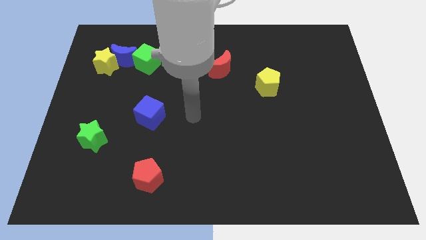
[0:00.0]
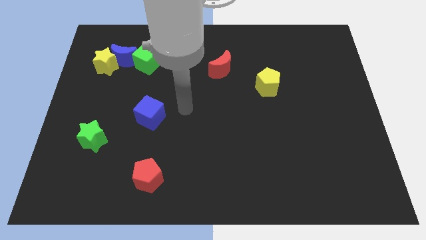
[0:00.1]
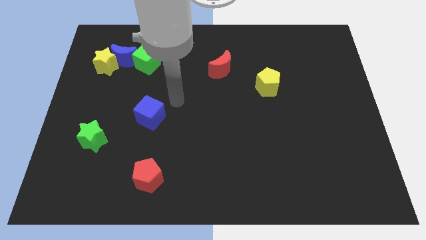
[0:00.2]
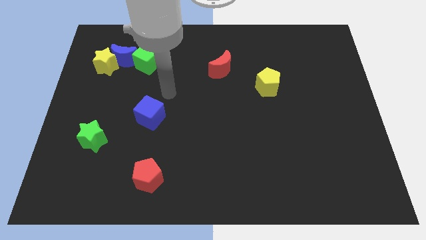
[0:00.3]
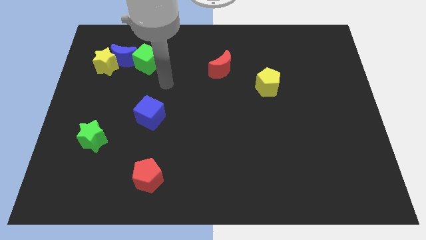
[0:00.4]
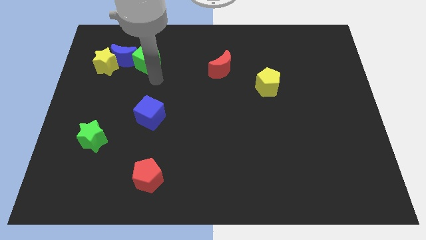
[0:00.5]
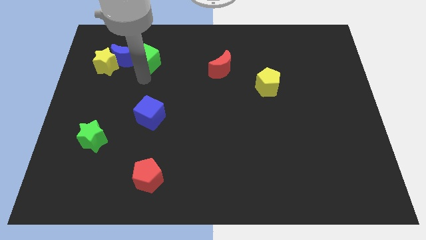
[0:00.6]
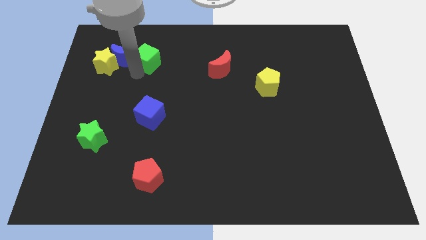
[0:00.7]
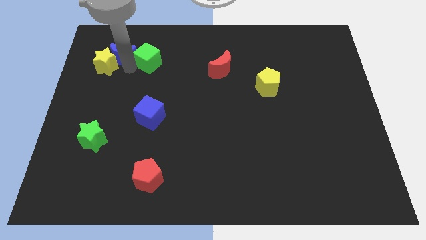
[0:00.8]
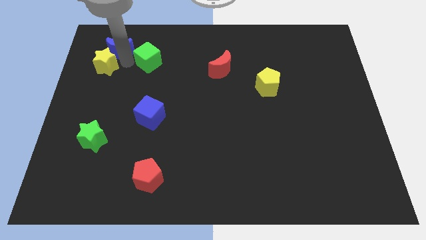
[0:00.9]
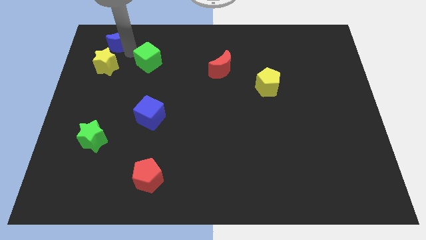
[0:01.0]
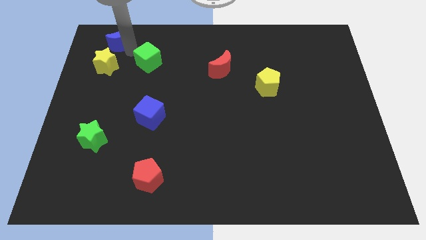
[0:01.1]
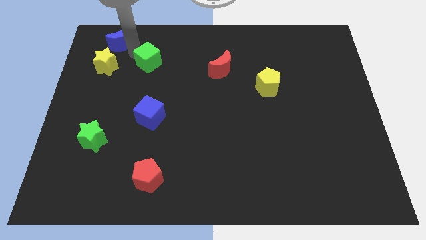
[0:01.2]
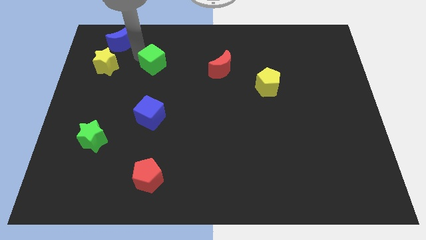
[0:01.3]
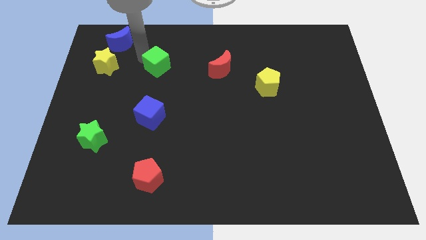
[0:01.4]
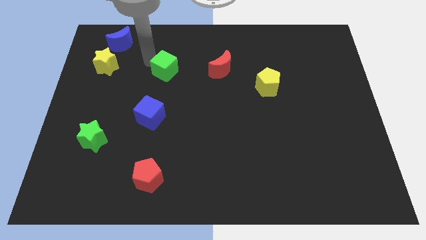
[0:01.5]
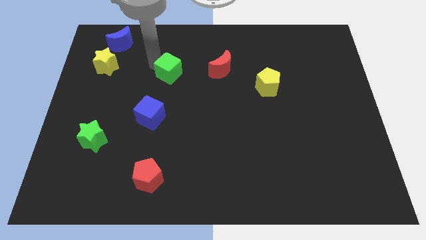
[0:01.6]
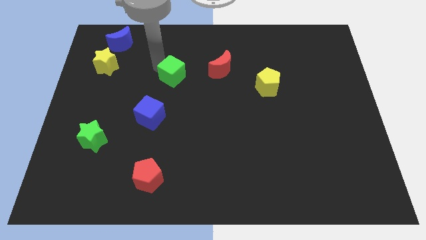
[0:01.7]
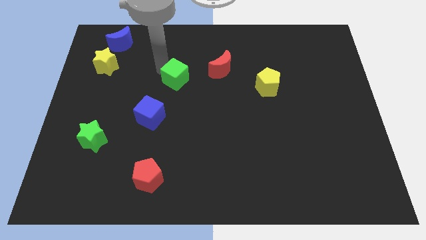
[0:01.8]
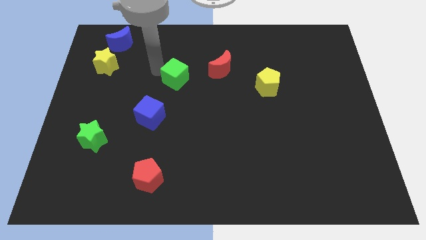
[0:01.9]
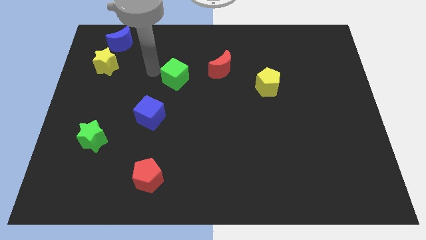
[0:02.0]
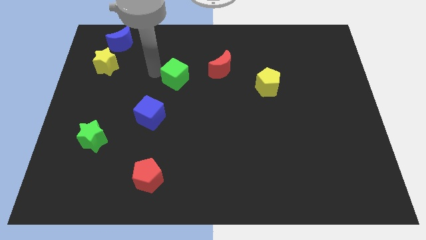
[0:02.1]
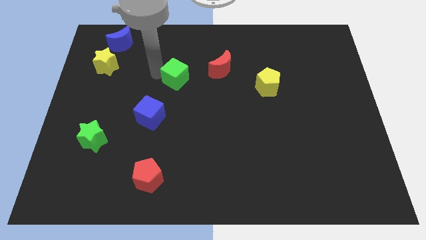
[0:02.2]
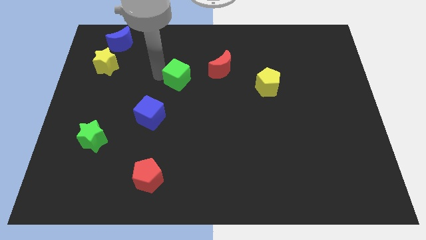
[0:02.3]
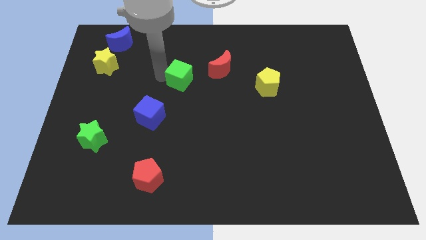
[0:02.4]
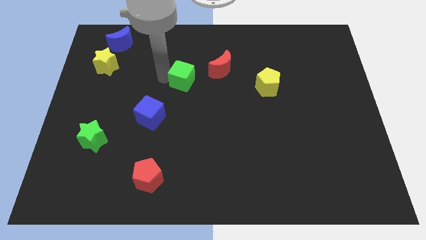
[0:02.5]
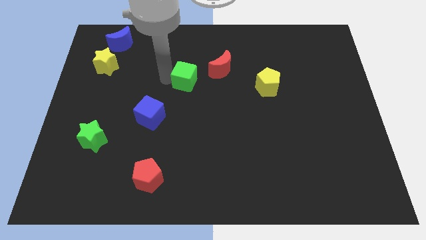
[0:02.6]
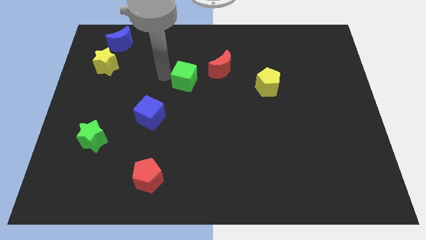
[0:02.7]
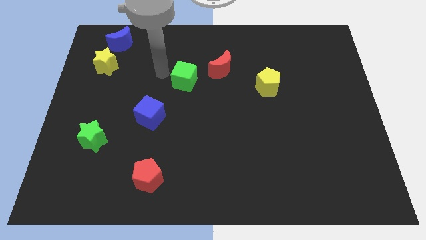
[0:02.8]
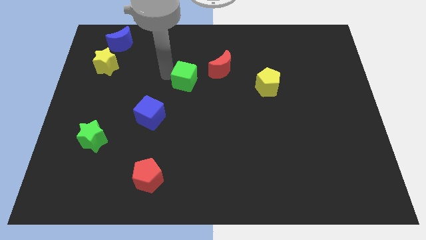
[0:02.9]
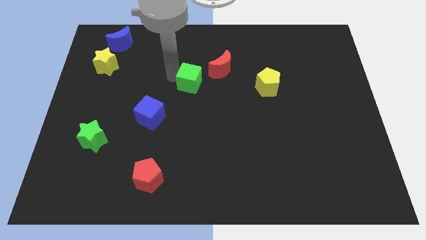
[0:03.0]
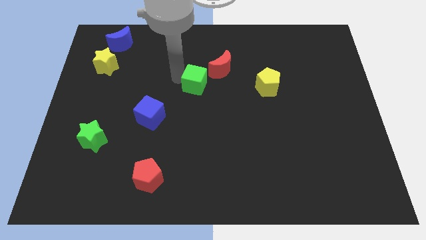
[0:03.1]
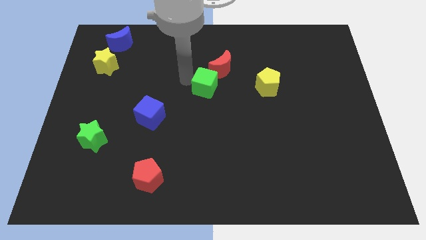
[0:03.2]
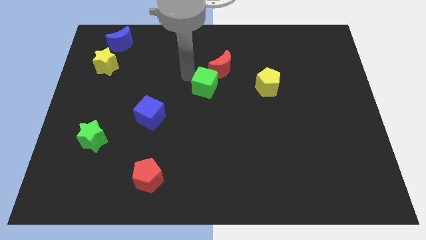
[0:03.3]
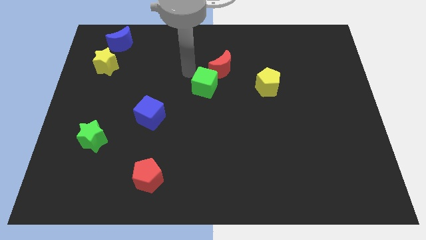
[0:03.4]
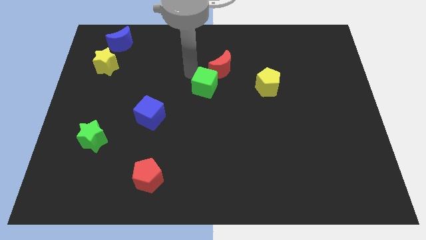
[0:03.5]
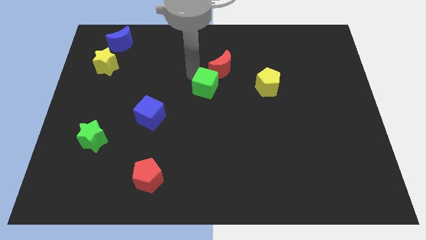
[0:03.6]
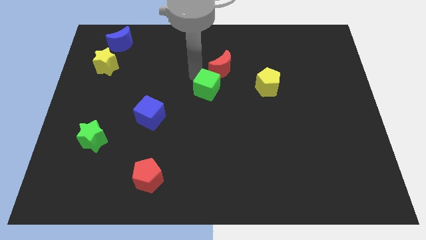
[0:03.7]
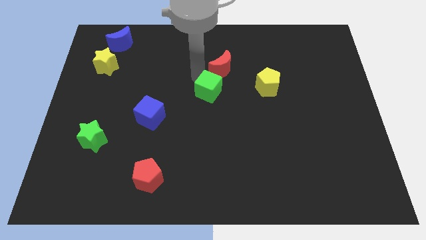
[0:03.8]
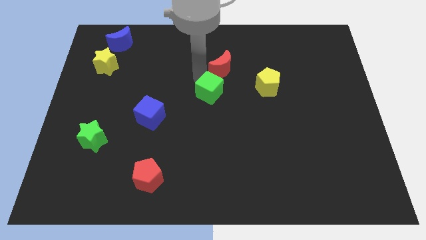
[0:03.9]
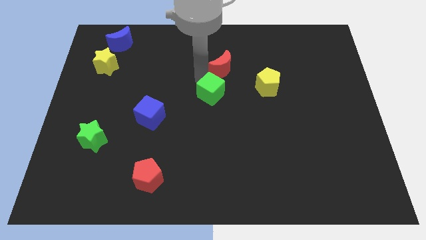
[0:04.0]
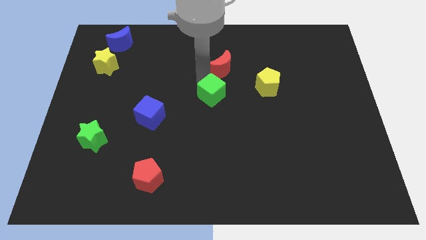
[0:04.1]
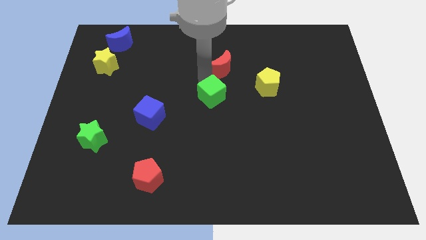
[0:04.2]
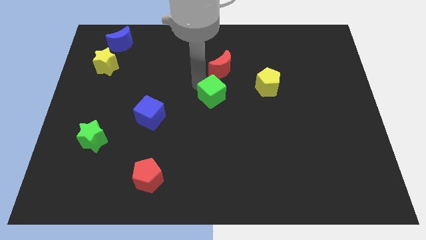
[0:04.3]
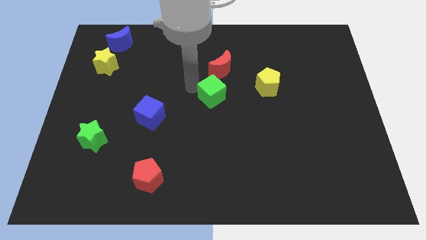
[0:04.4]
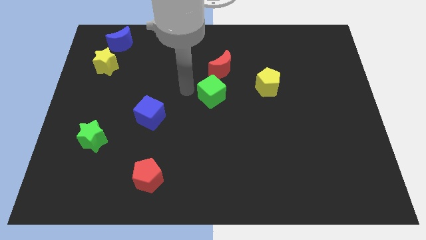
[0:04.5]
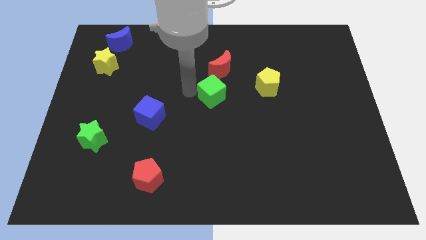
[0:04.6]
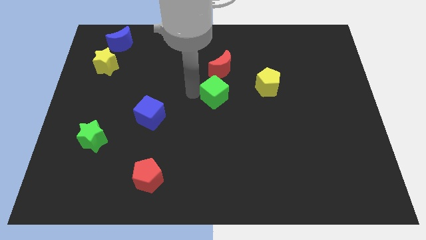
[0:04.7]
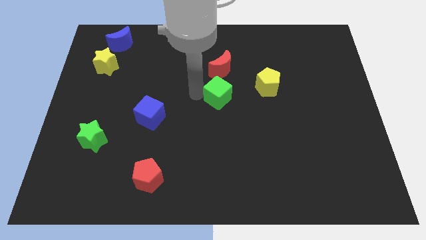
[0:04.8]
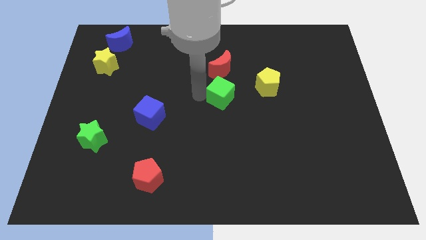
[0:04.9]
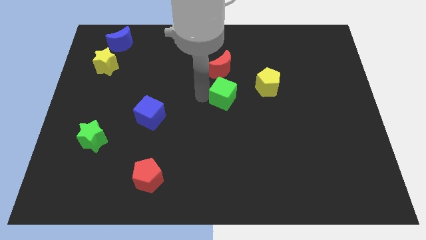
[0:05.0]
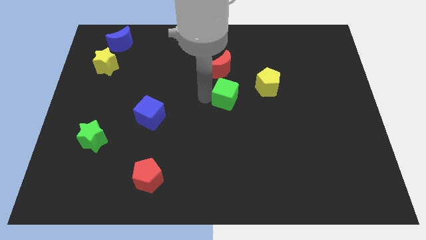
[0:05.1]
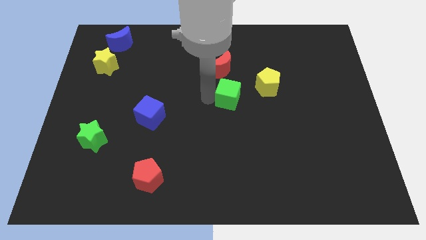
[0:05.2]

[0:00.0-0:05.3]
slide the green cube diagonally down and to the left of the yellow pentagon

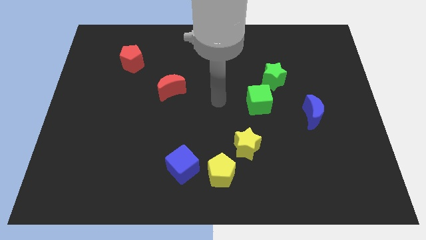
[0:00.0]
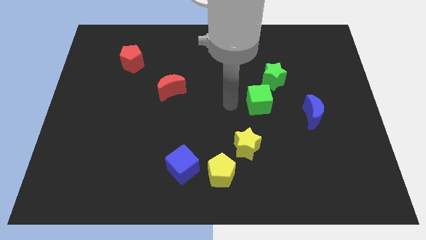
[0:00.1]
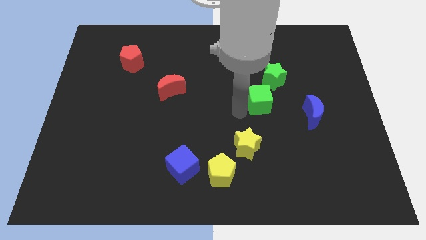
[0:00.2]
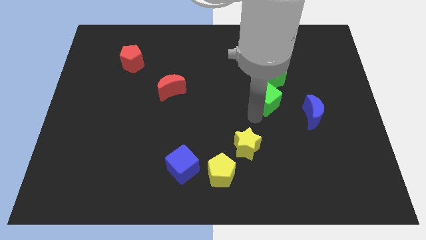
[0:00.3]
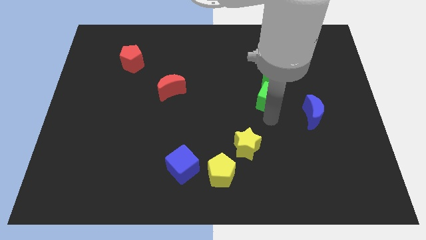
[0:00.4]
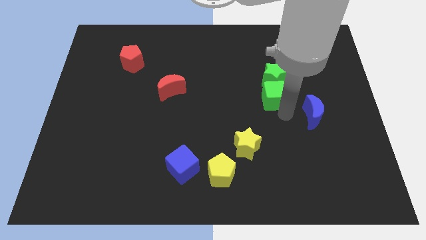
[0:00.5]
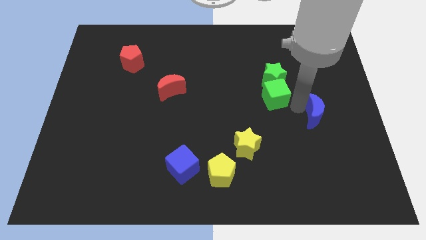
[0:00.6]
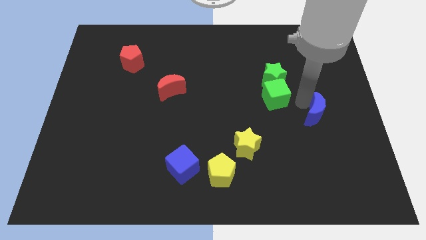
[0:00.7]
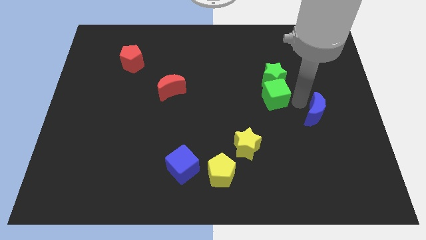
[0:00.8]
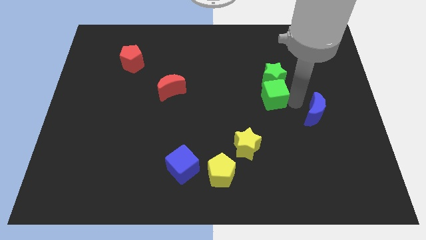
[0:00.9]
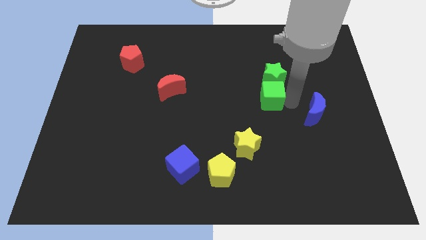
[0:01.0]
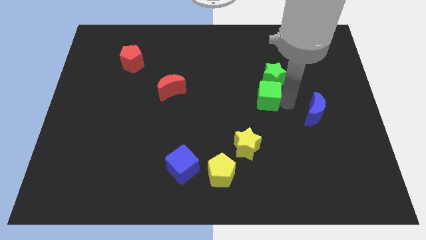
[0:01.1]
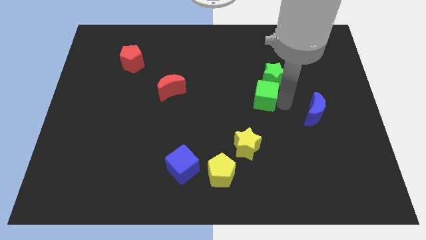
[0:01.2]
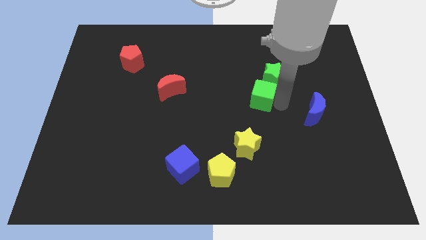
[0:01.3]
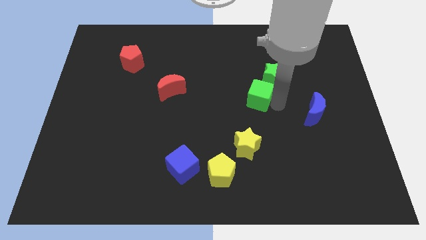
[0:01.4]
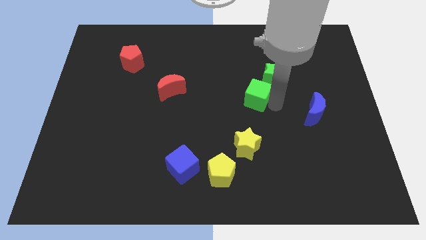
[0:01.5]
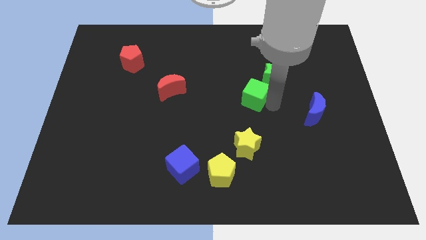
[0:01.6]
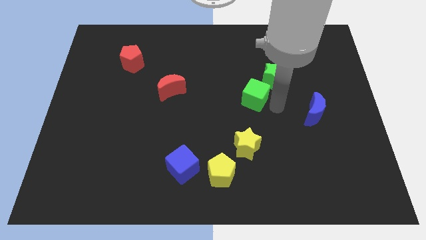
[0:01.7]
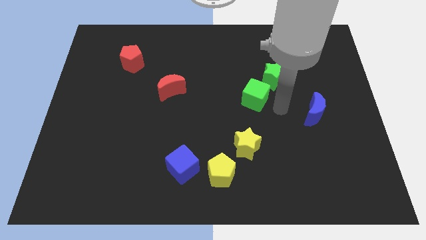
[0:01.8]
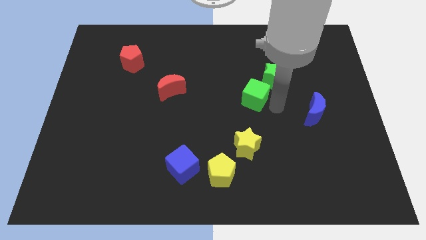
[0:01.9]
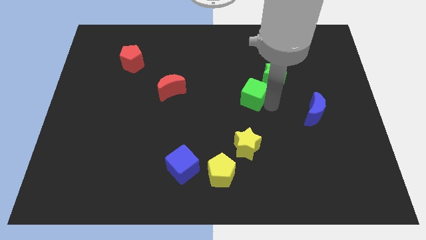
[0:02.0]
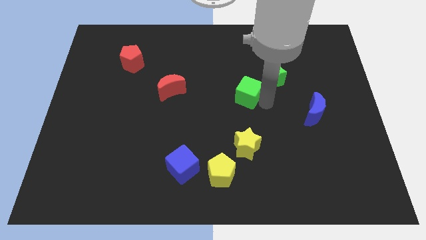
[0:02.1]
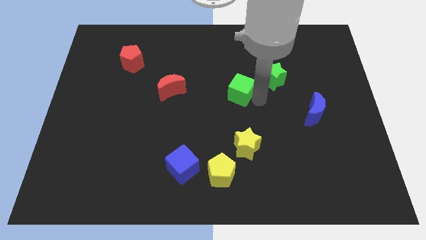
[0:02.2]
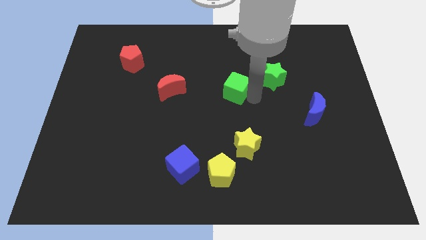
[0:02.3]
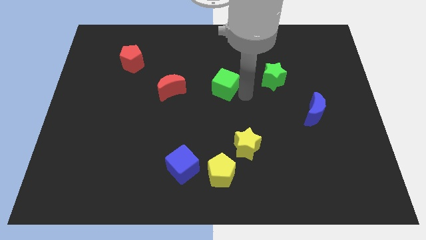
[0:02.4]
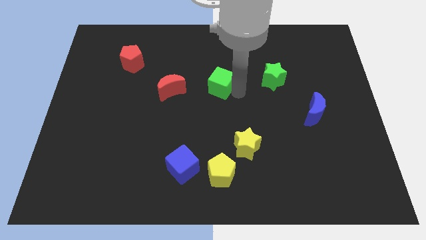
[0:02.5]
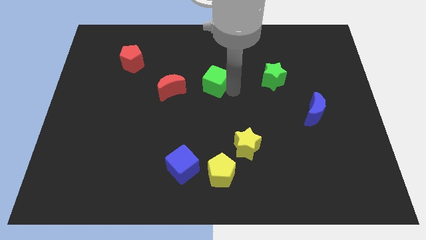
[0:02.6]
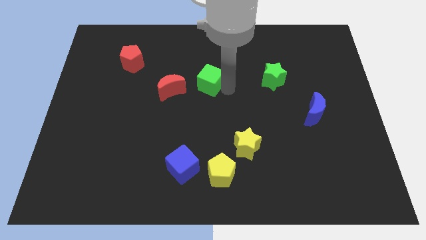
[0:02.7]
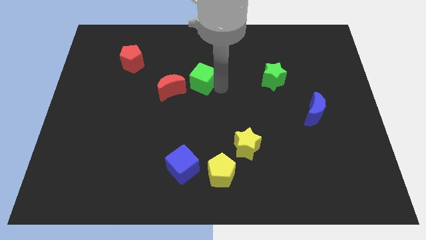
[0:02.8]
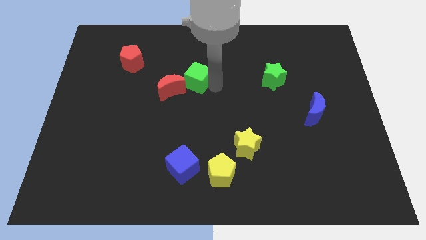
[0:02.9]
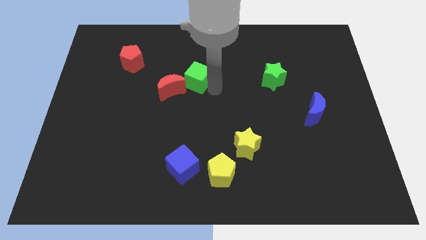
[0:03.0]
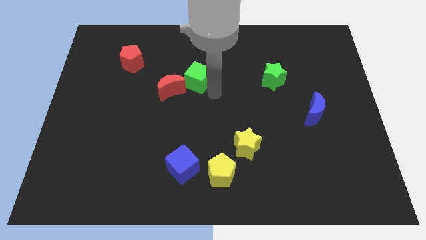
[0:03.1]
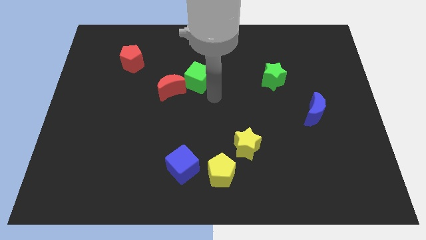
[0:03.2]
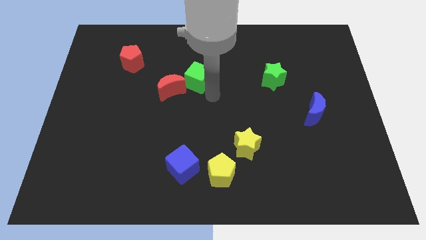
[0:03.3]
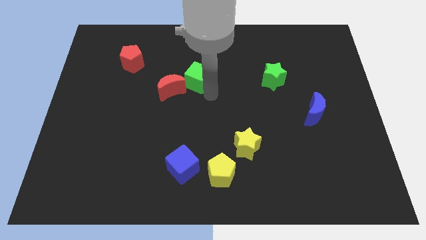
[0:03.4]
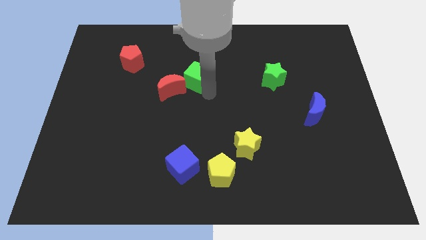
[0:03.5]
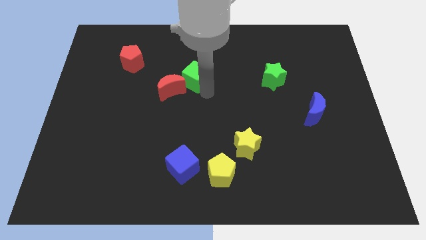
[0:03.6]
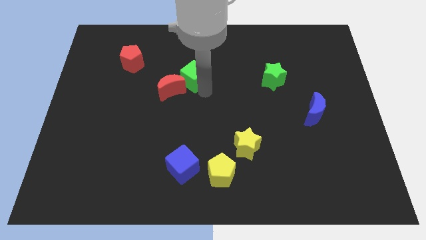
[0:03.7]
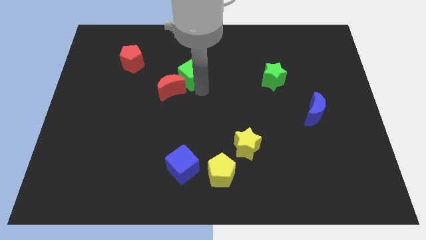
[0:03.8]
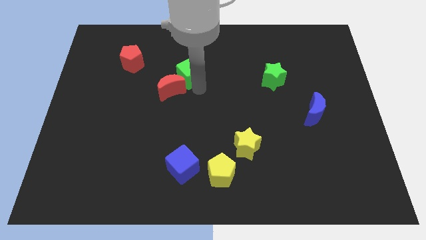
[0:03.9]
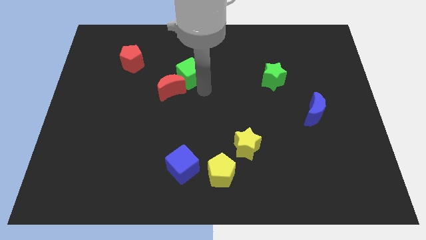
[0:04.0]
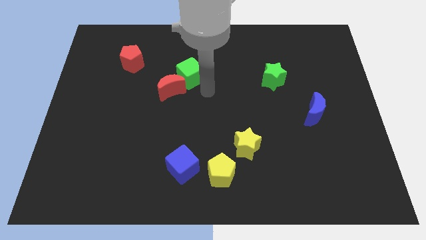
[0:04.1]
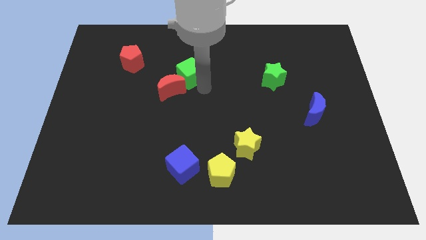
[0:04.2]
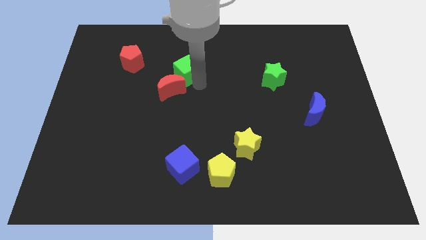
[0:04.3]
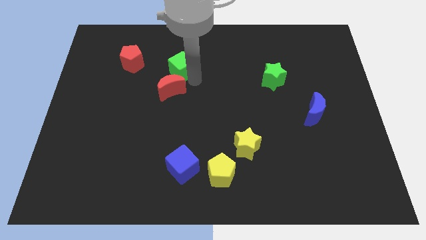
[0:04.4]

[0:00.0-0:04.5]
move the green cube to the right side of the red pentagon
